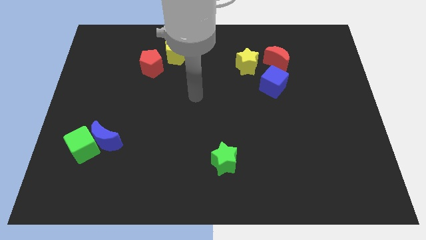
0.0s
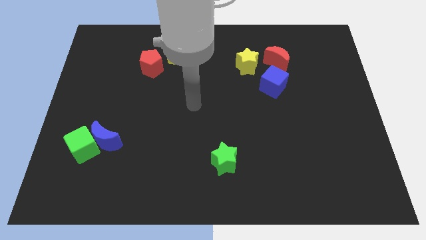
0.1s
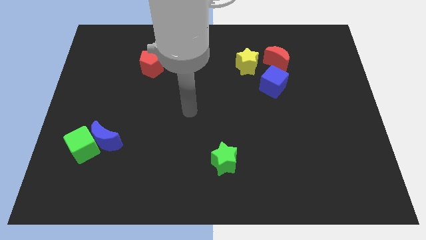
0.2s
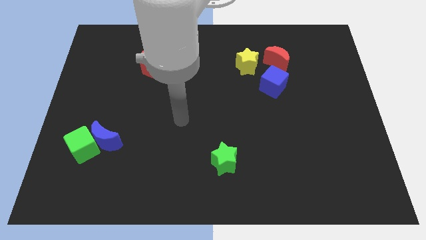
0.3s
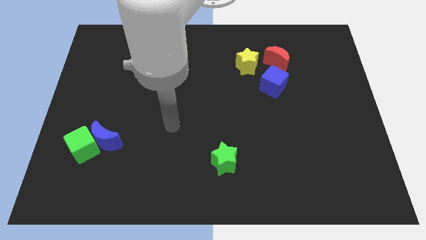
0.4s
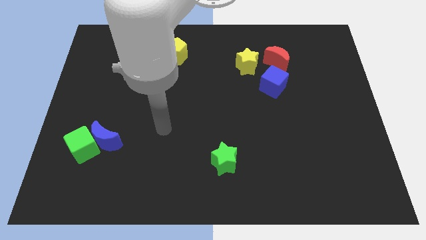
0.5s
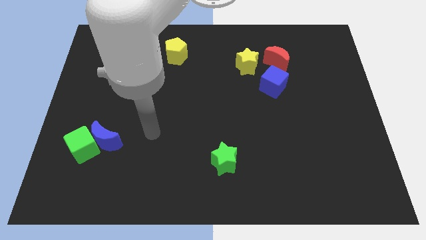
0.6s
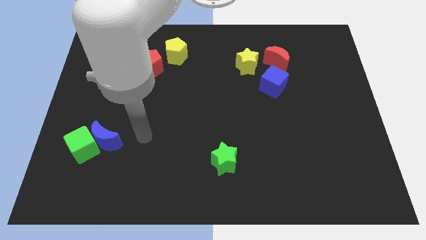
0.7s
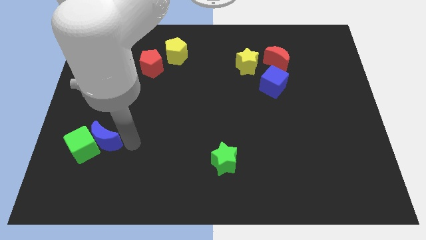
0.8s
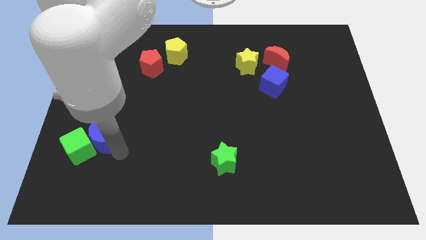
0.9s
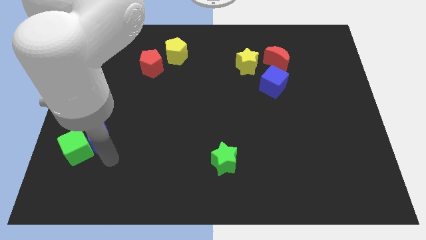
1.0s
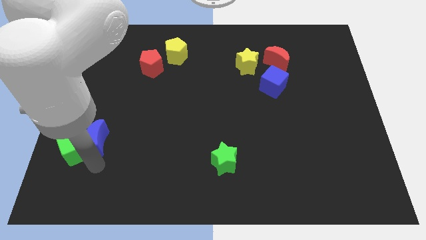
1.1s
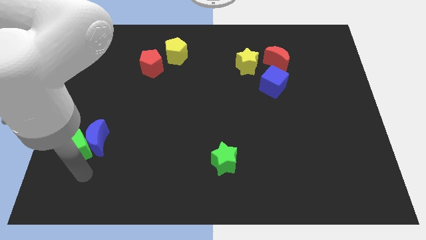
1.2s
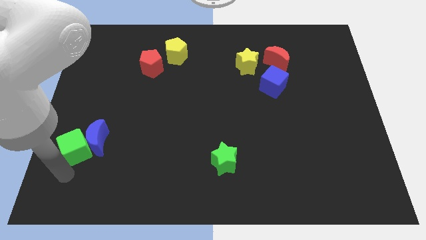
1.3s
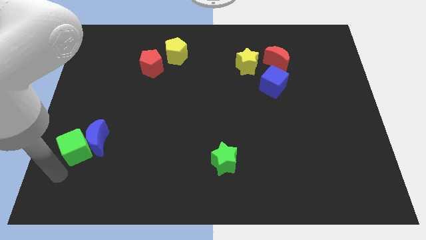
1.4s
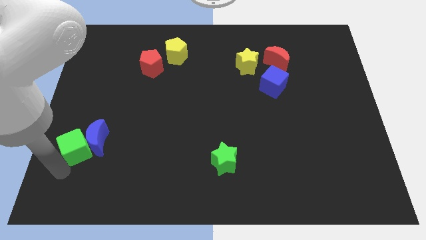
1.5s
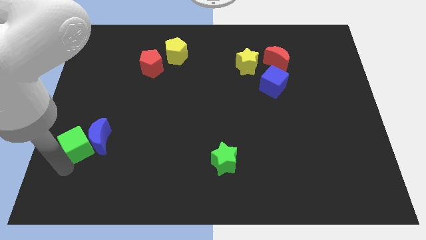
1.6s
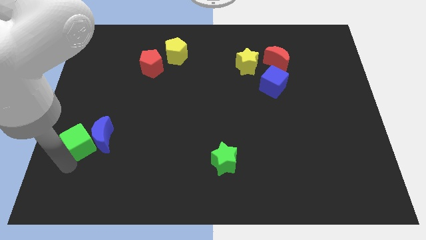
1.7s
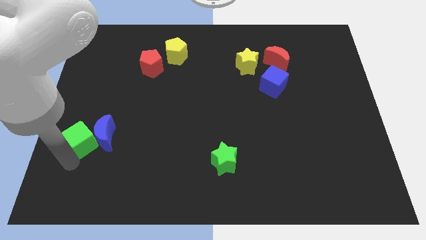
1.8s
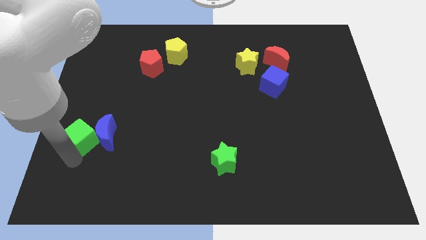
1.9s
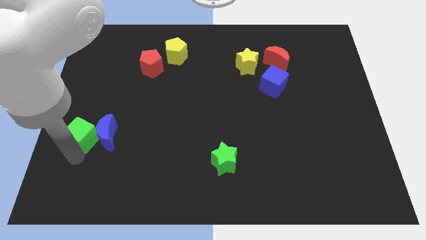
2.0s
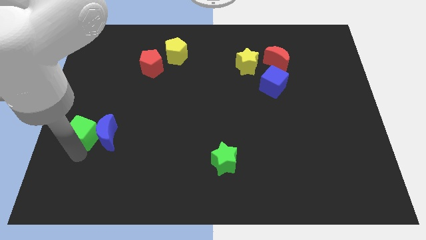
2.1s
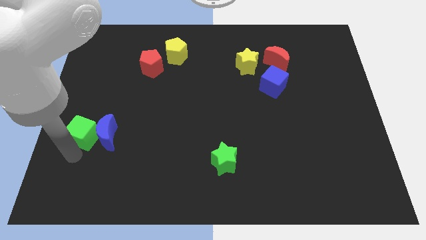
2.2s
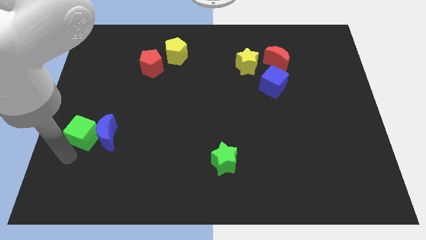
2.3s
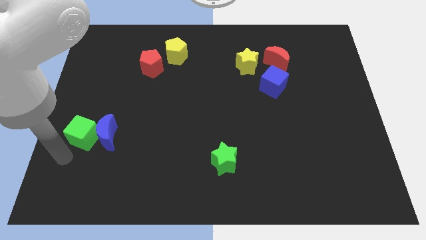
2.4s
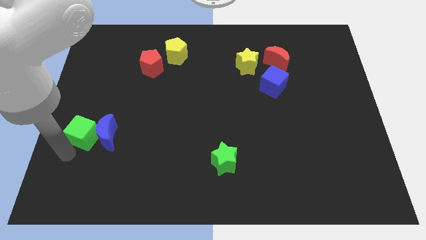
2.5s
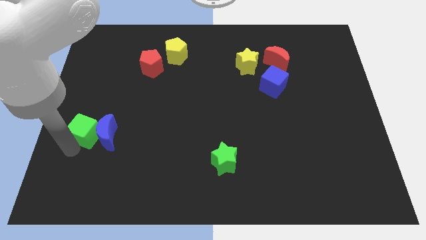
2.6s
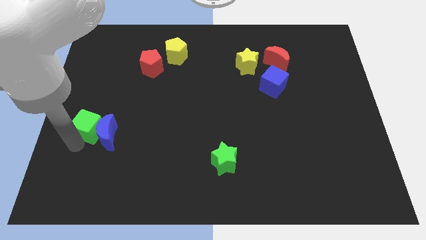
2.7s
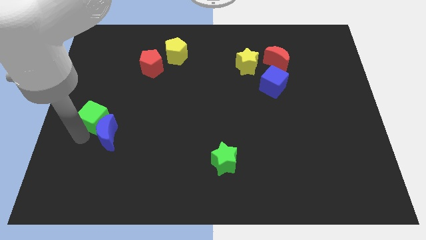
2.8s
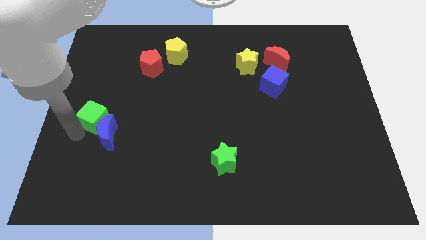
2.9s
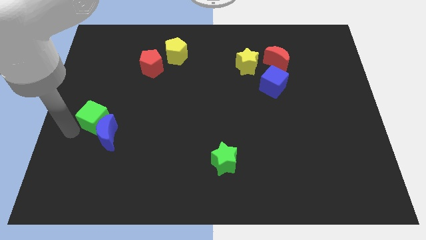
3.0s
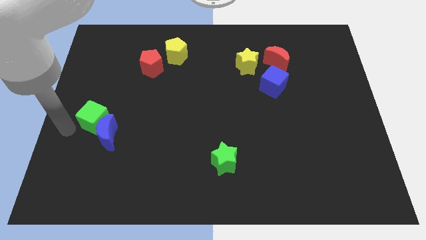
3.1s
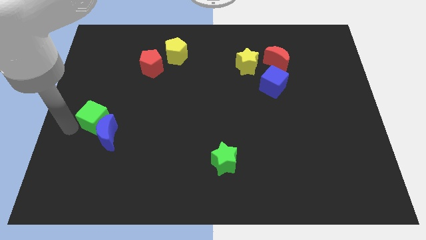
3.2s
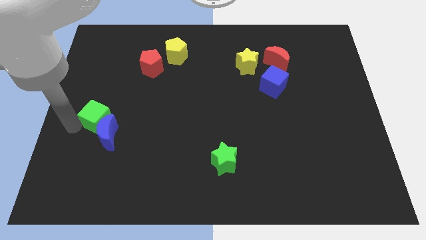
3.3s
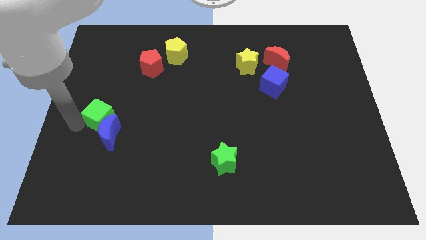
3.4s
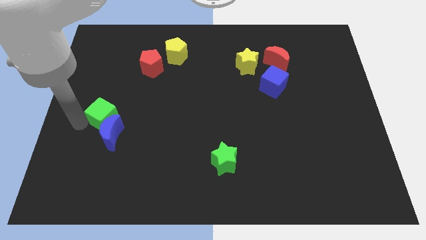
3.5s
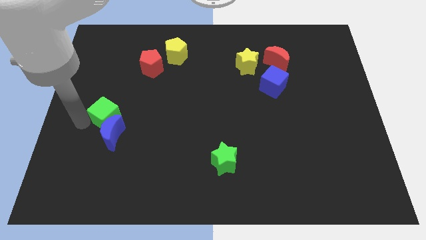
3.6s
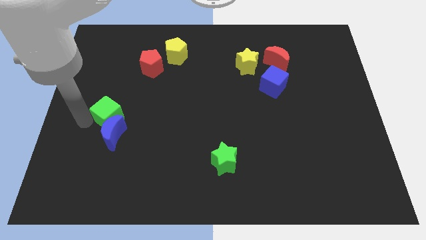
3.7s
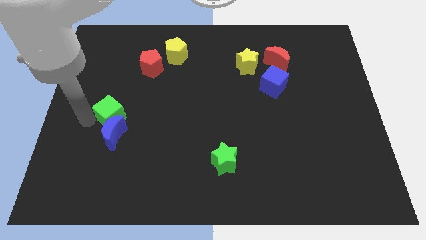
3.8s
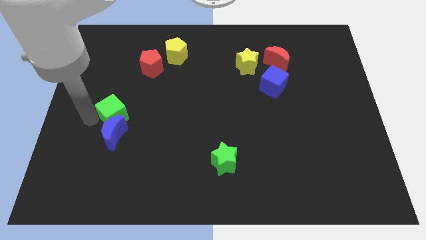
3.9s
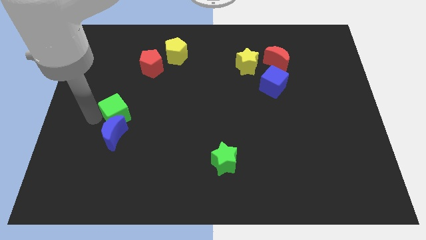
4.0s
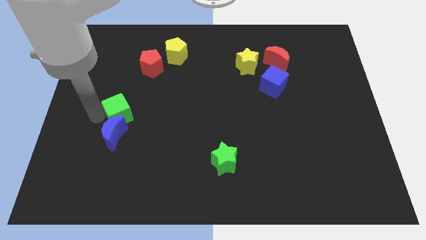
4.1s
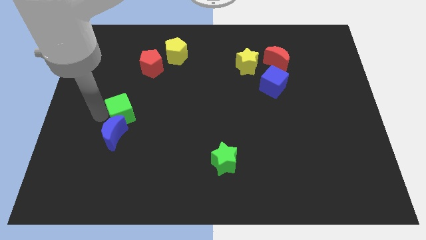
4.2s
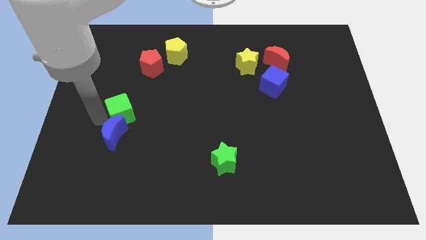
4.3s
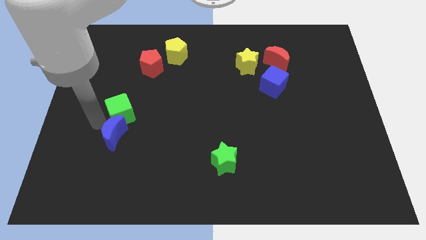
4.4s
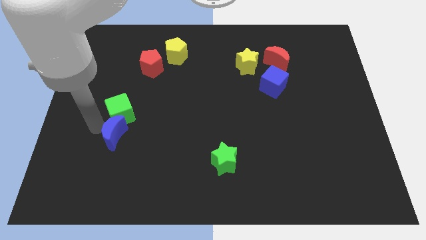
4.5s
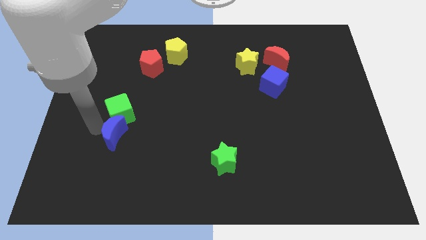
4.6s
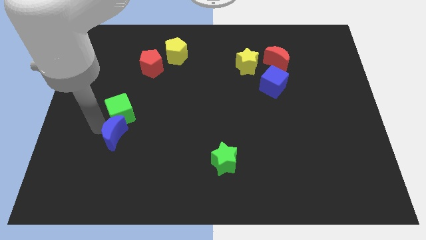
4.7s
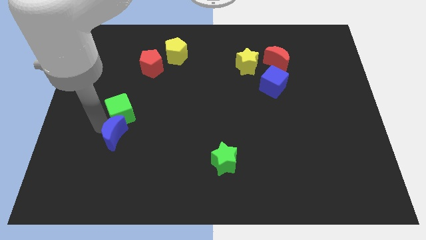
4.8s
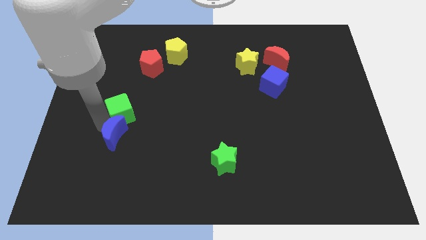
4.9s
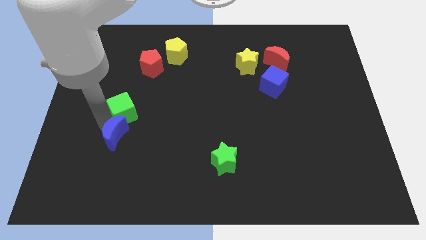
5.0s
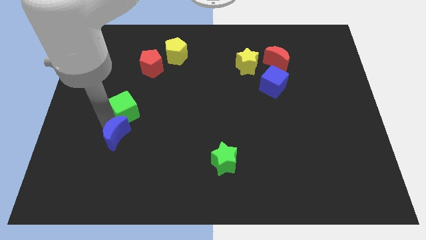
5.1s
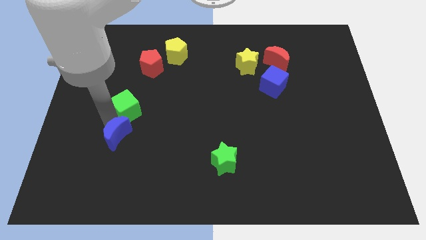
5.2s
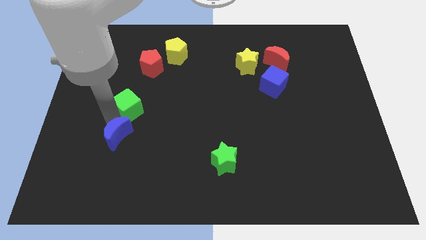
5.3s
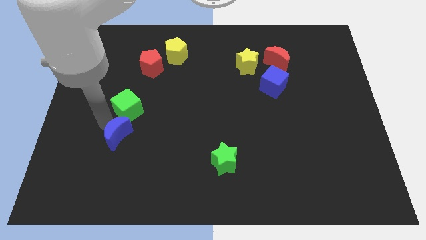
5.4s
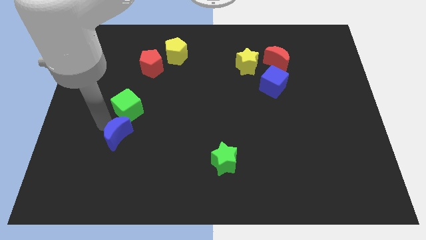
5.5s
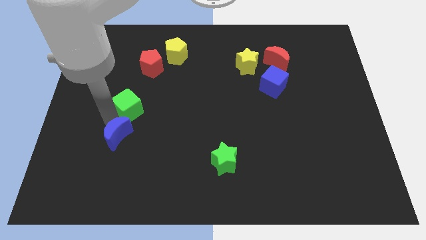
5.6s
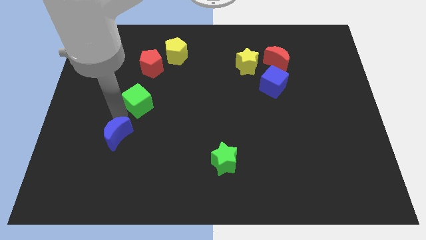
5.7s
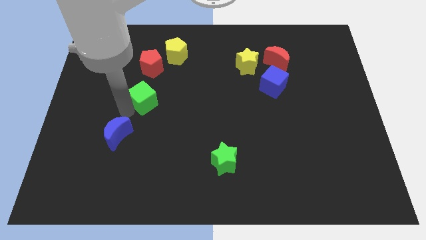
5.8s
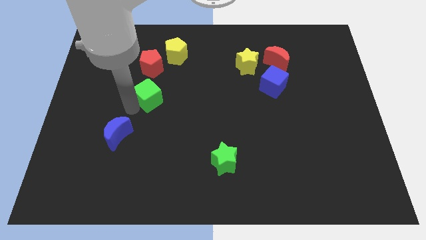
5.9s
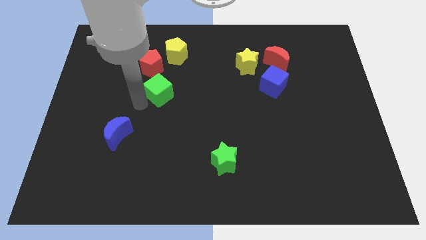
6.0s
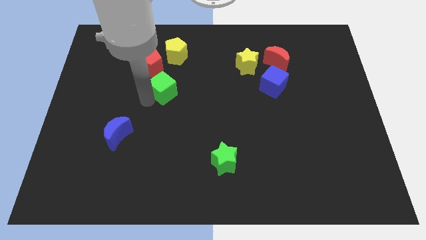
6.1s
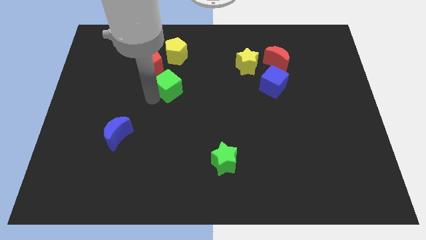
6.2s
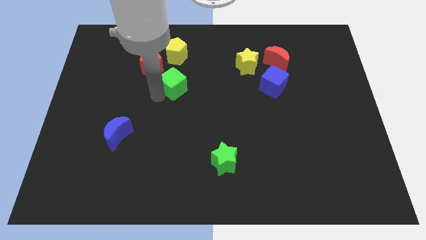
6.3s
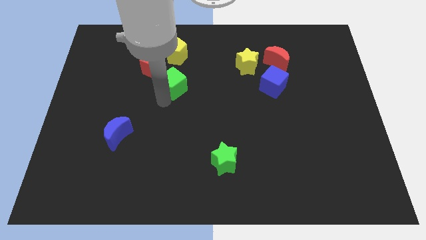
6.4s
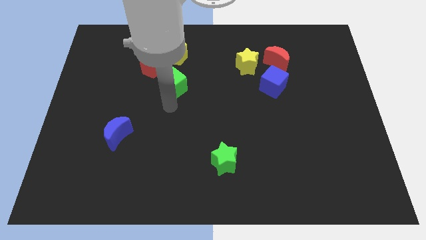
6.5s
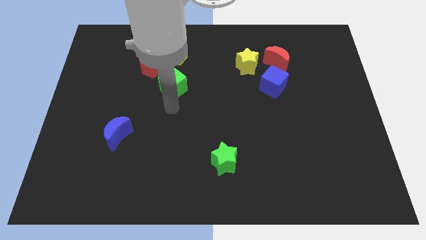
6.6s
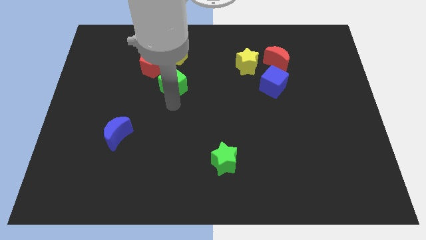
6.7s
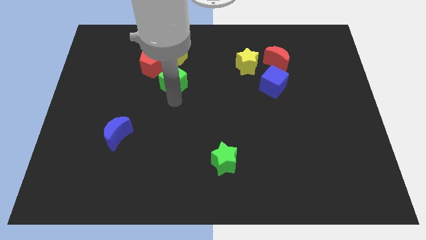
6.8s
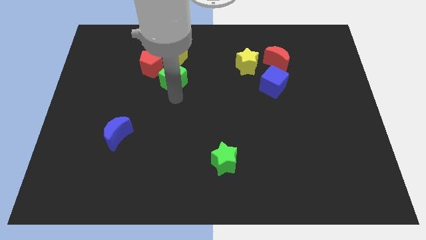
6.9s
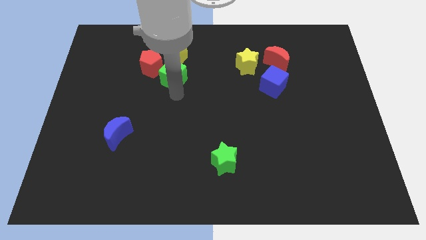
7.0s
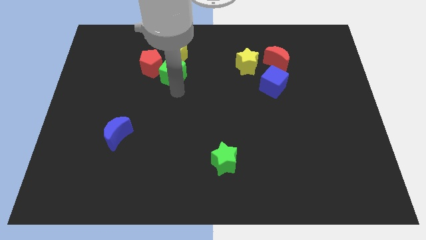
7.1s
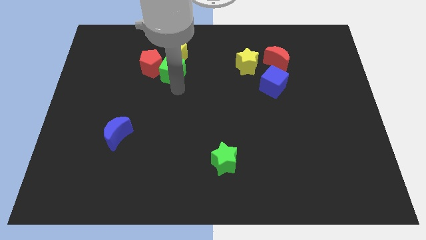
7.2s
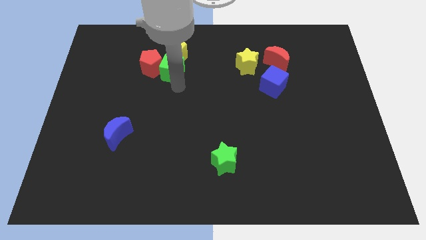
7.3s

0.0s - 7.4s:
slide the green cube towards the yellow pentagon
